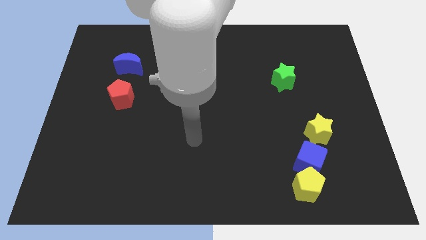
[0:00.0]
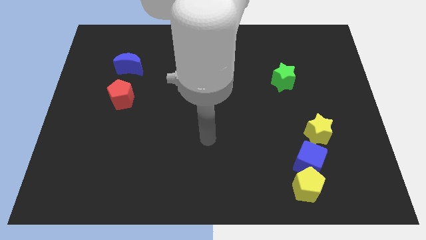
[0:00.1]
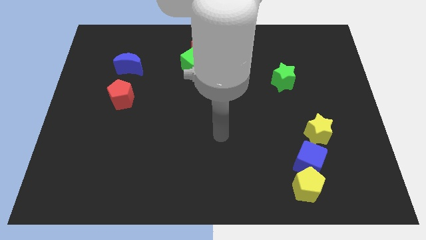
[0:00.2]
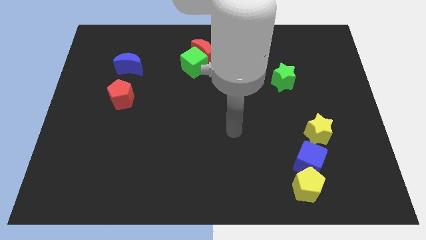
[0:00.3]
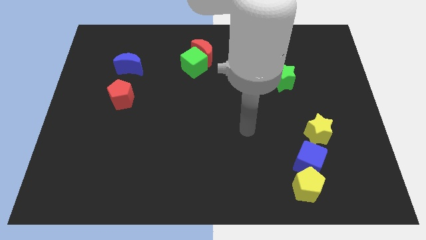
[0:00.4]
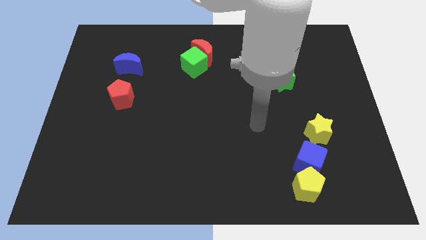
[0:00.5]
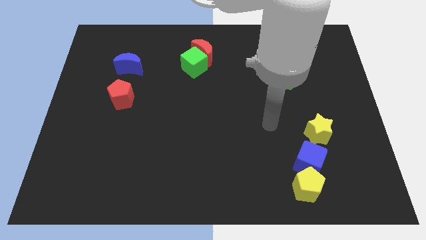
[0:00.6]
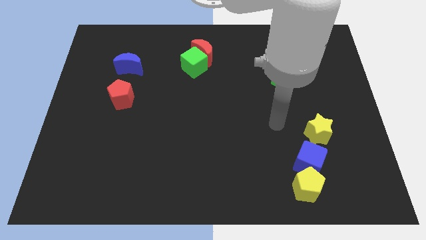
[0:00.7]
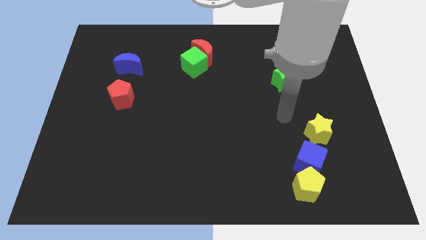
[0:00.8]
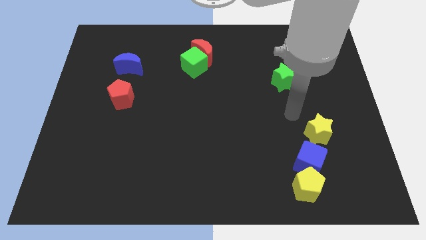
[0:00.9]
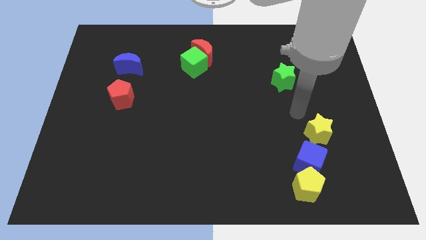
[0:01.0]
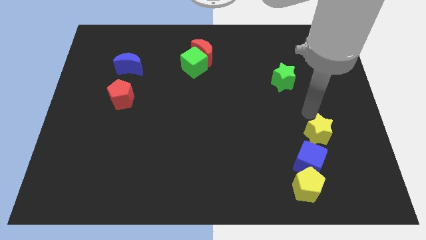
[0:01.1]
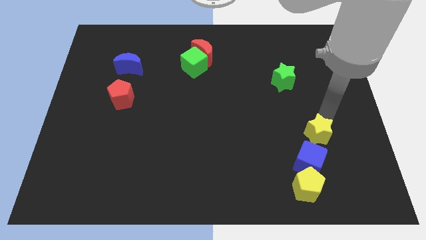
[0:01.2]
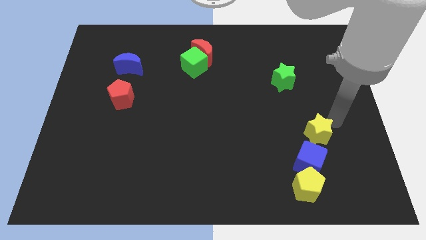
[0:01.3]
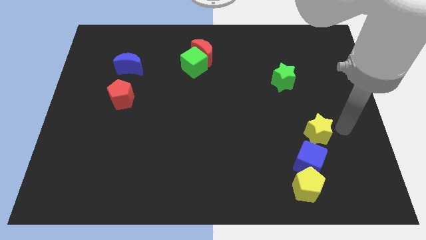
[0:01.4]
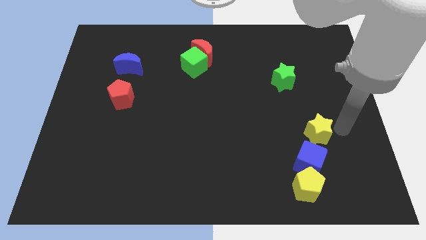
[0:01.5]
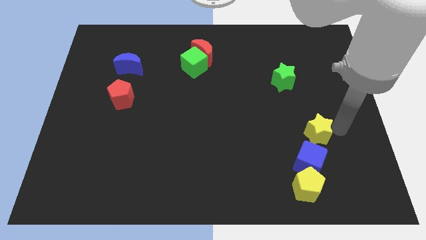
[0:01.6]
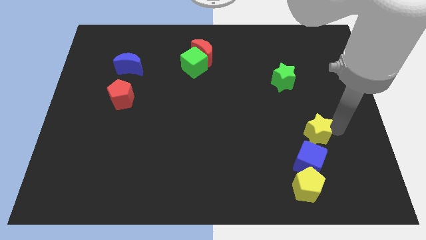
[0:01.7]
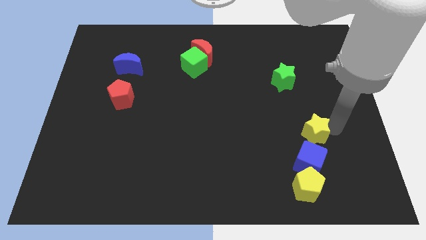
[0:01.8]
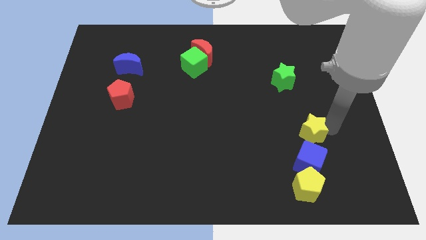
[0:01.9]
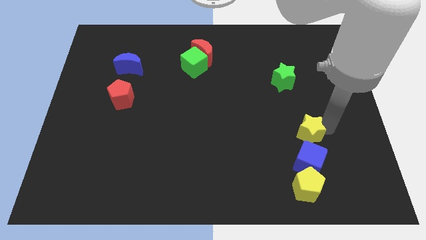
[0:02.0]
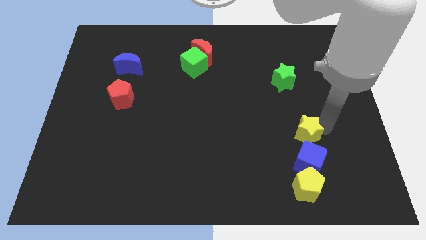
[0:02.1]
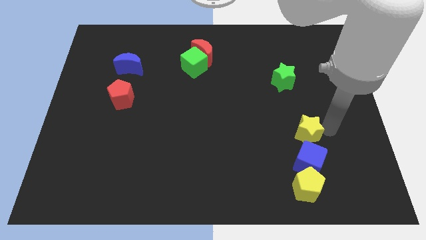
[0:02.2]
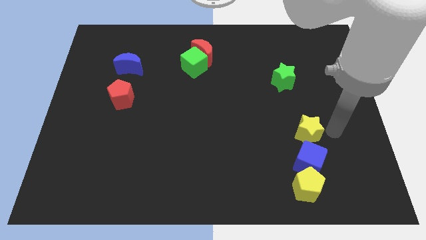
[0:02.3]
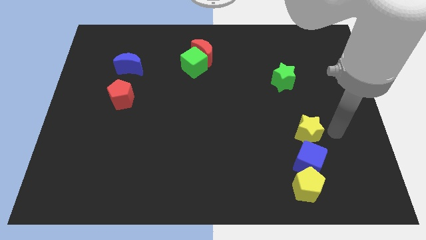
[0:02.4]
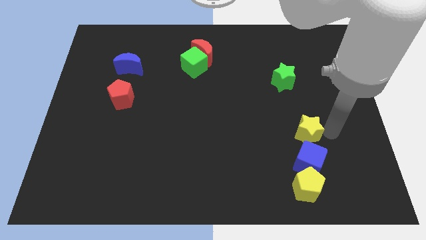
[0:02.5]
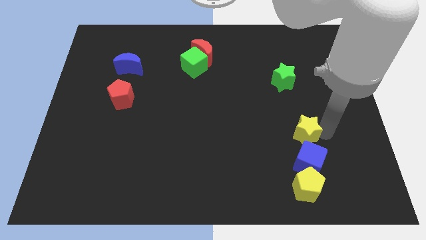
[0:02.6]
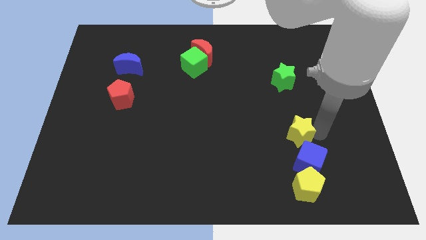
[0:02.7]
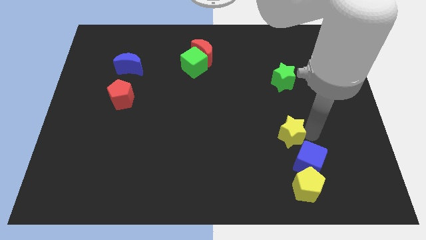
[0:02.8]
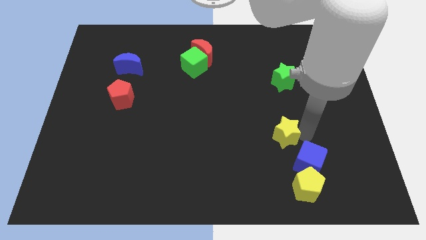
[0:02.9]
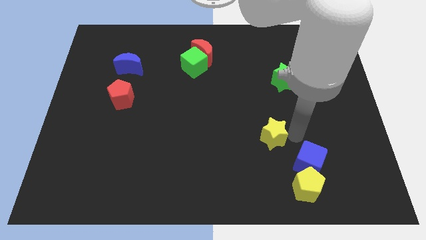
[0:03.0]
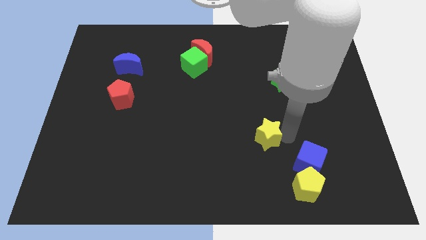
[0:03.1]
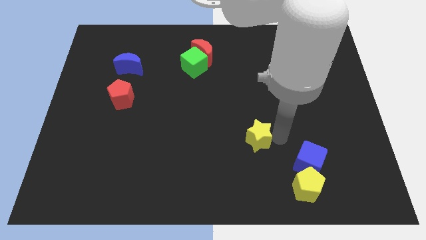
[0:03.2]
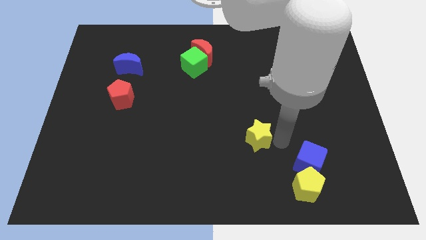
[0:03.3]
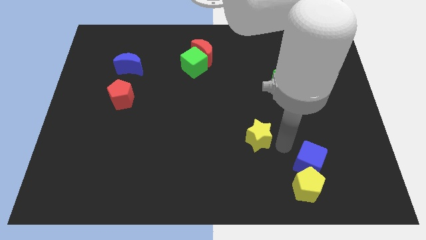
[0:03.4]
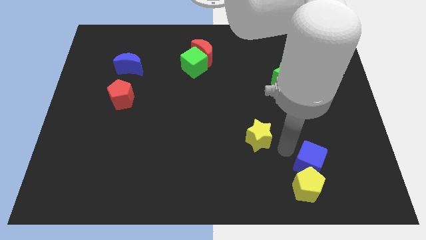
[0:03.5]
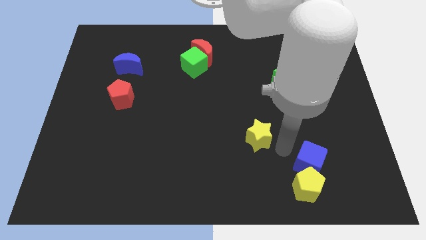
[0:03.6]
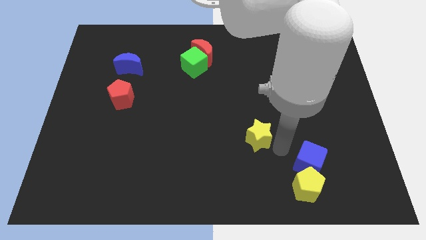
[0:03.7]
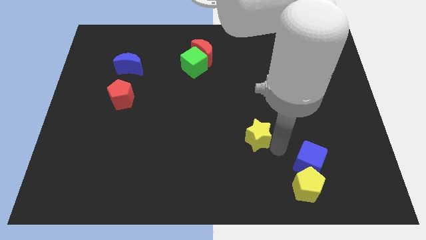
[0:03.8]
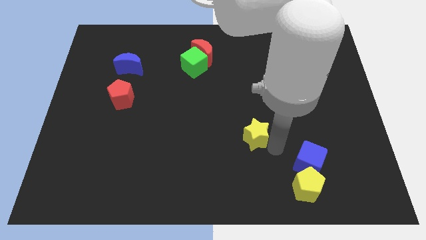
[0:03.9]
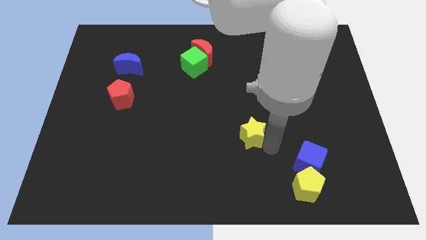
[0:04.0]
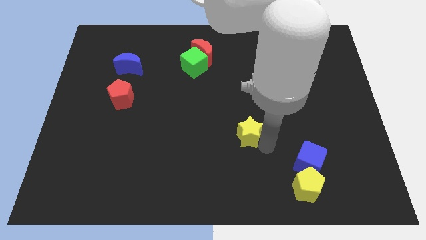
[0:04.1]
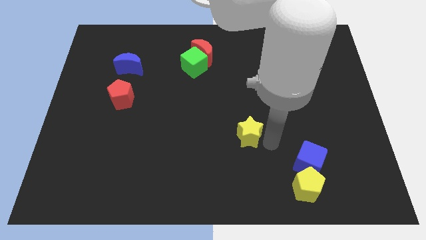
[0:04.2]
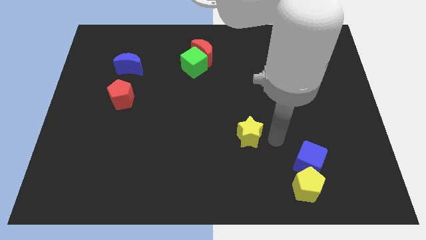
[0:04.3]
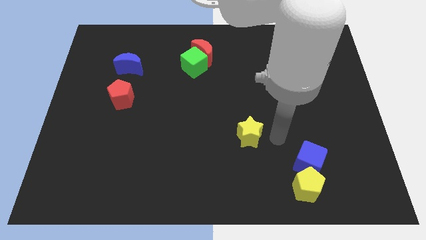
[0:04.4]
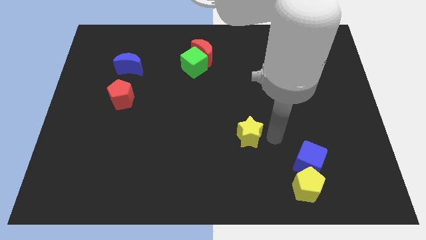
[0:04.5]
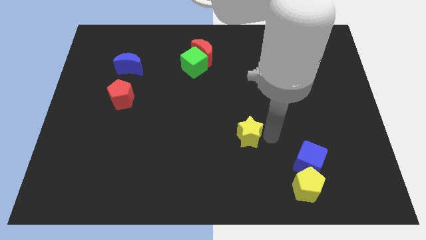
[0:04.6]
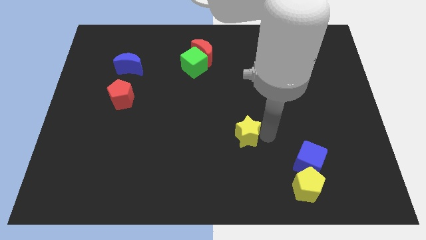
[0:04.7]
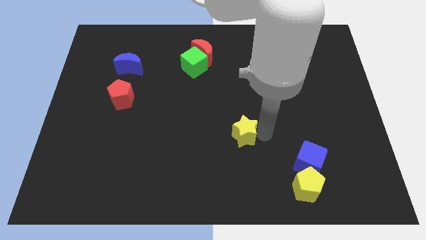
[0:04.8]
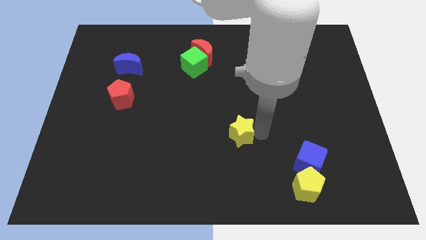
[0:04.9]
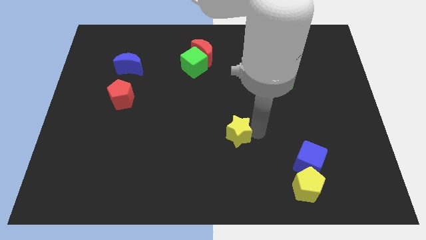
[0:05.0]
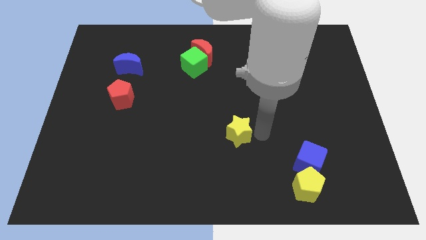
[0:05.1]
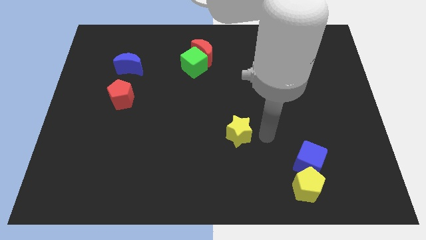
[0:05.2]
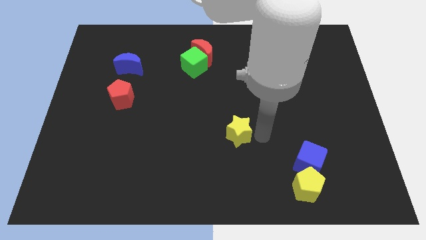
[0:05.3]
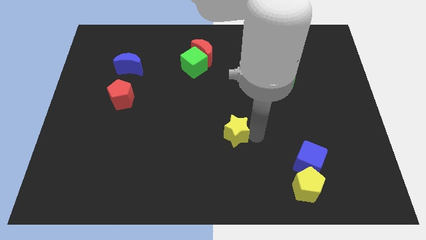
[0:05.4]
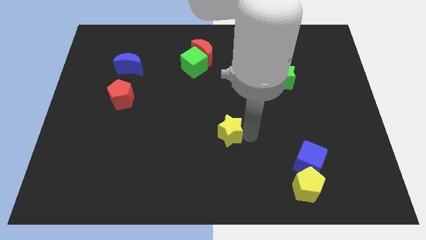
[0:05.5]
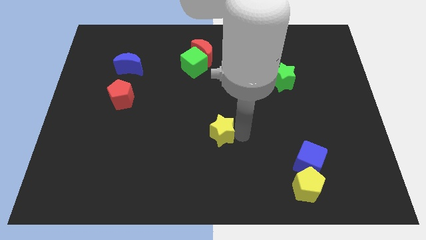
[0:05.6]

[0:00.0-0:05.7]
push the yellow star left

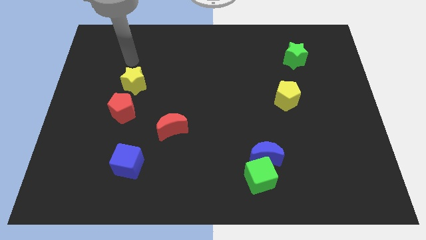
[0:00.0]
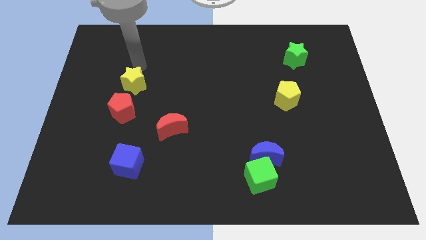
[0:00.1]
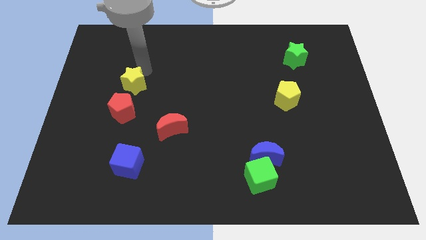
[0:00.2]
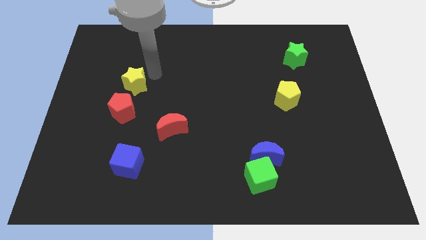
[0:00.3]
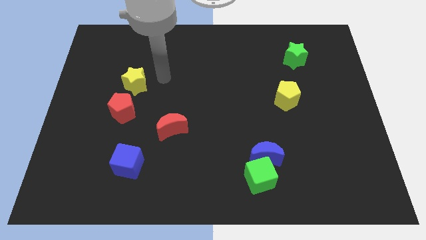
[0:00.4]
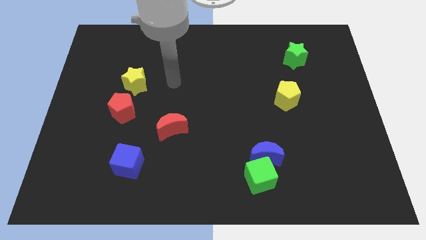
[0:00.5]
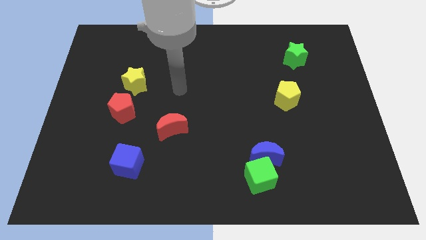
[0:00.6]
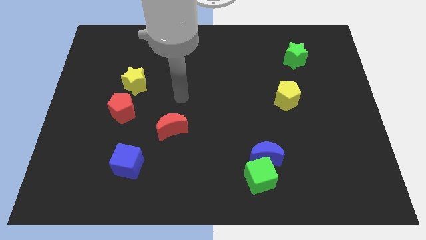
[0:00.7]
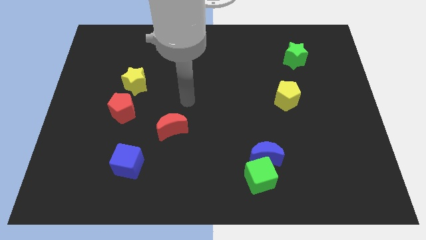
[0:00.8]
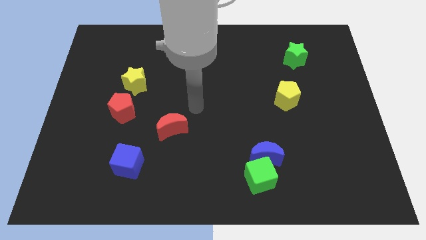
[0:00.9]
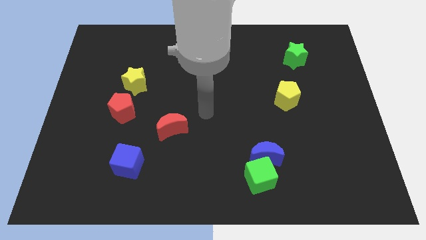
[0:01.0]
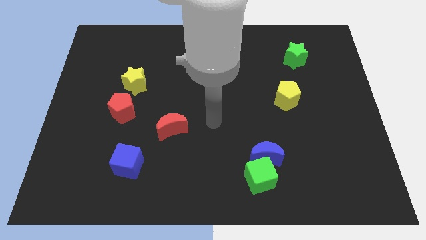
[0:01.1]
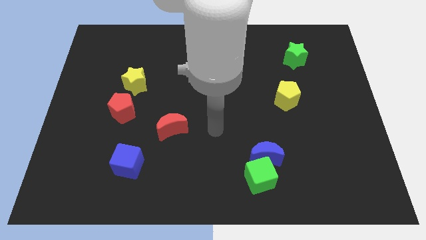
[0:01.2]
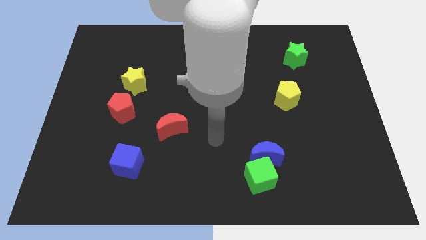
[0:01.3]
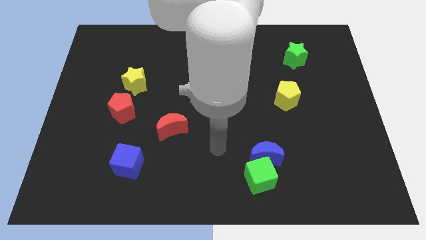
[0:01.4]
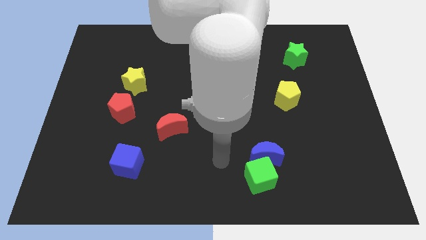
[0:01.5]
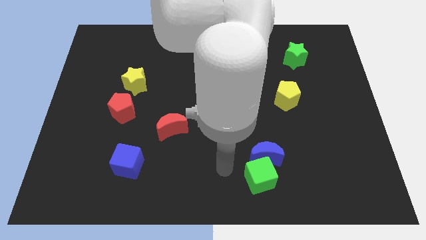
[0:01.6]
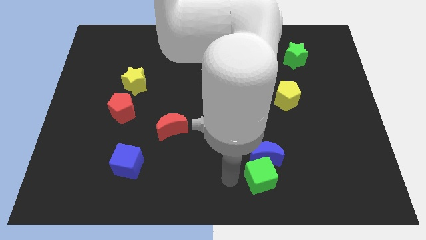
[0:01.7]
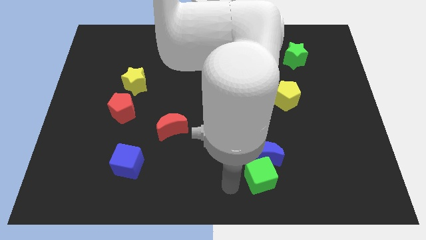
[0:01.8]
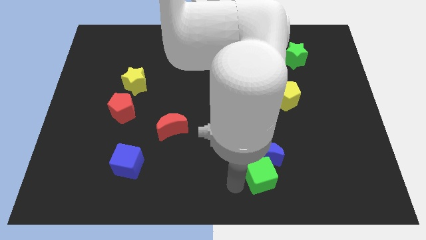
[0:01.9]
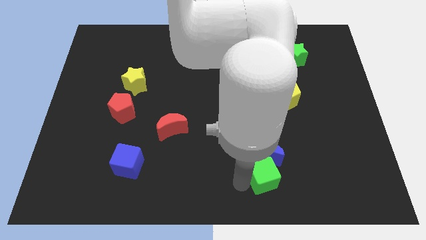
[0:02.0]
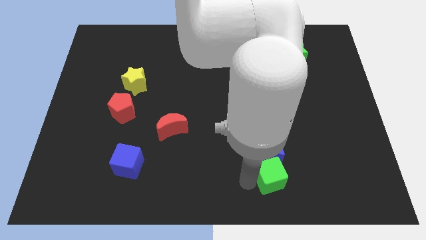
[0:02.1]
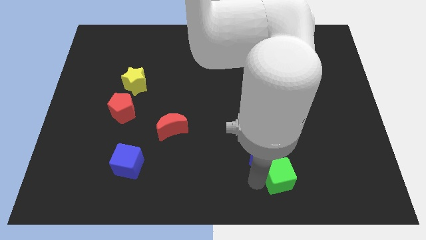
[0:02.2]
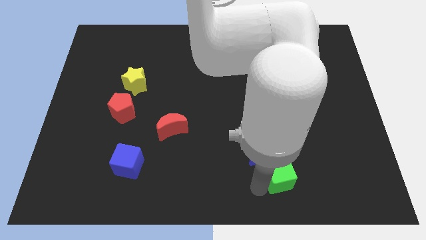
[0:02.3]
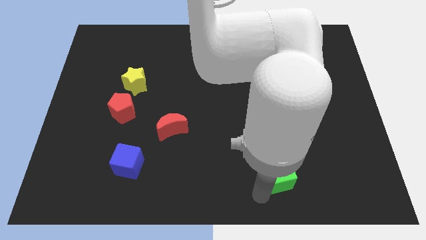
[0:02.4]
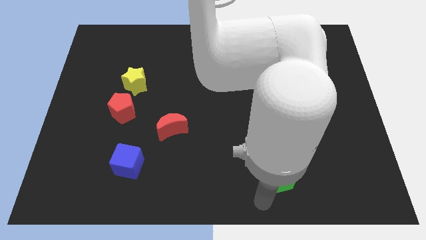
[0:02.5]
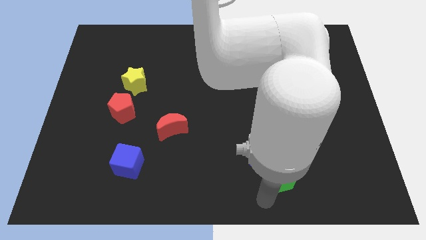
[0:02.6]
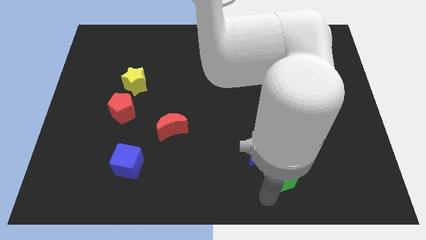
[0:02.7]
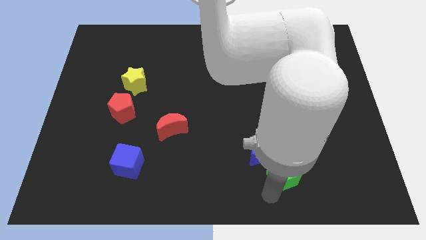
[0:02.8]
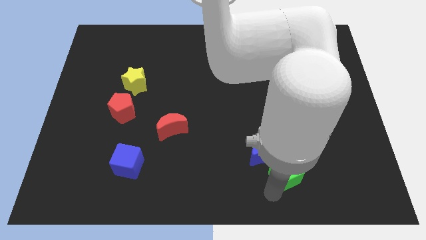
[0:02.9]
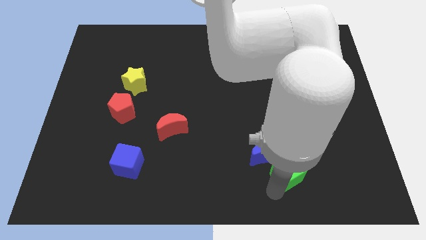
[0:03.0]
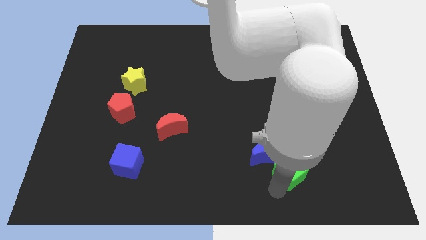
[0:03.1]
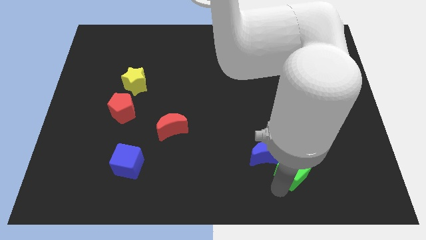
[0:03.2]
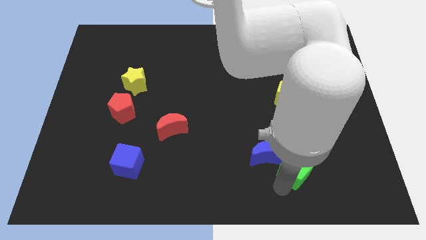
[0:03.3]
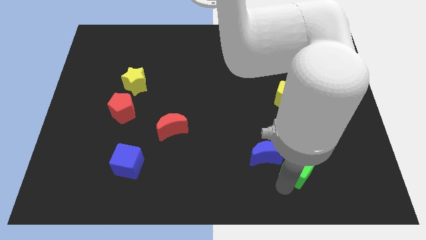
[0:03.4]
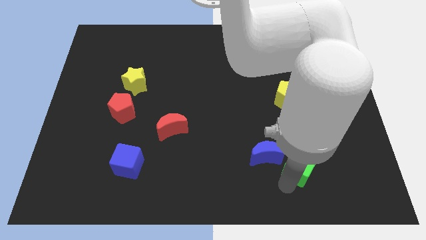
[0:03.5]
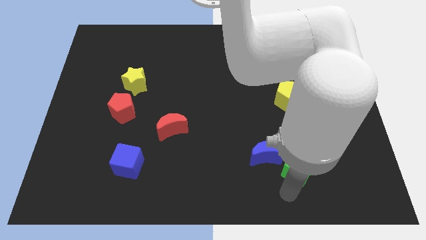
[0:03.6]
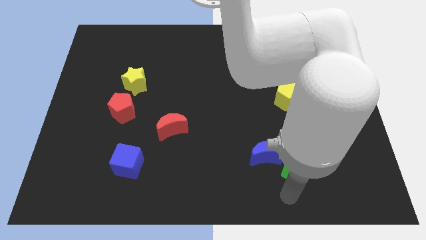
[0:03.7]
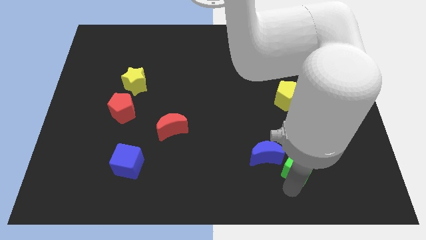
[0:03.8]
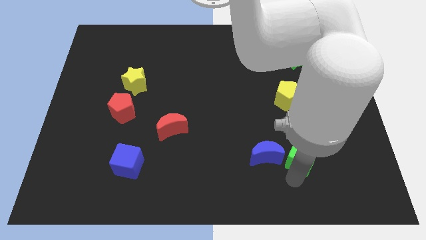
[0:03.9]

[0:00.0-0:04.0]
move the green cube somewhat upwards and then to the right
